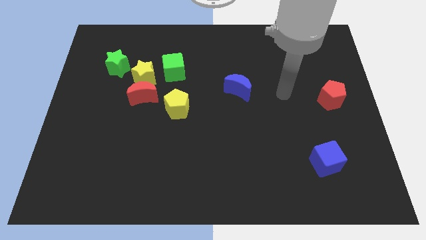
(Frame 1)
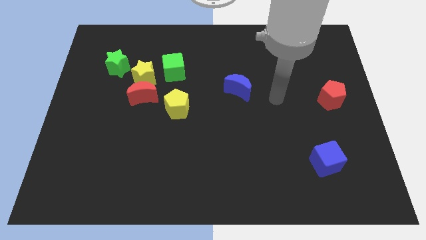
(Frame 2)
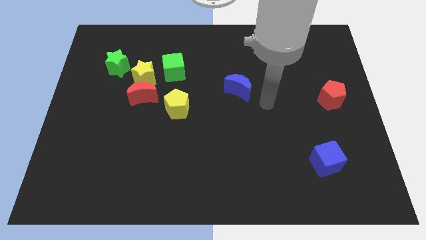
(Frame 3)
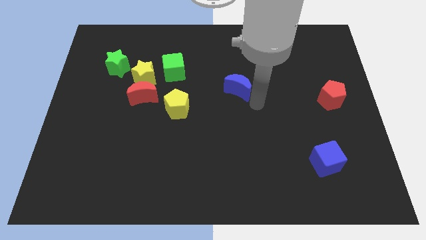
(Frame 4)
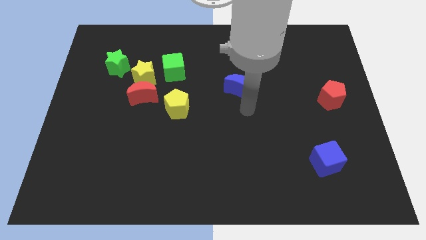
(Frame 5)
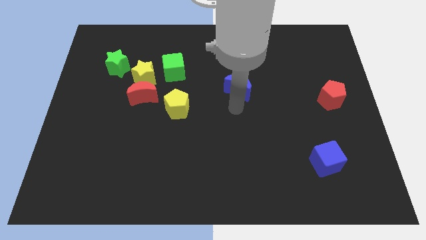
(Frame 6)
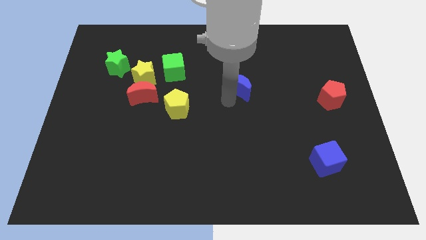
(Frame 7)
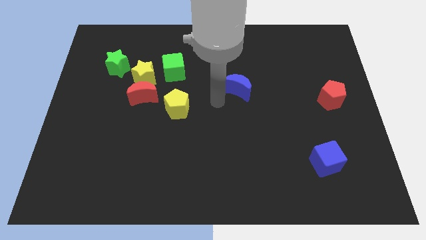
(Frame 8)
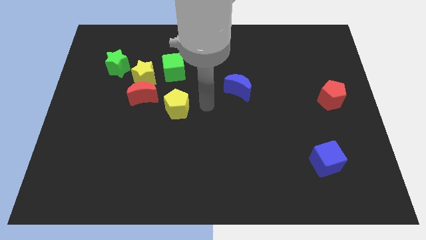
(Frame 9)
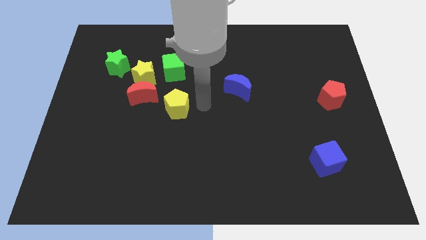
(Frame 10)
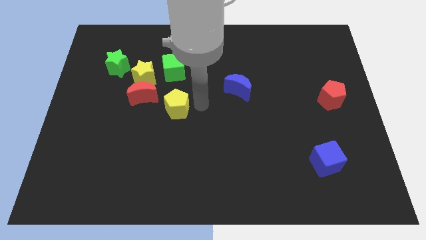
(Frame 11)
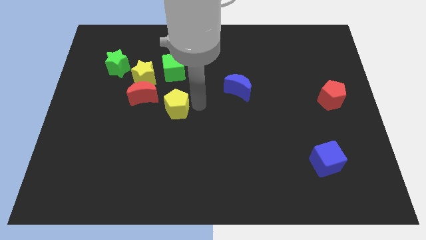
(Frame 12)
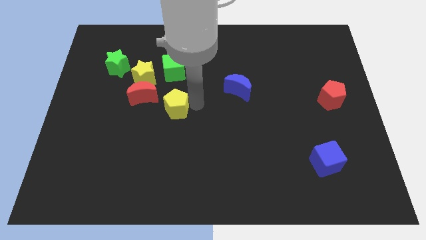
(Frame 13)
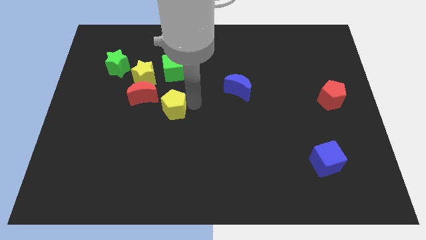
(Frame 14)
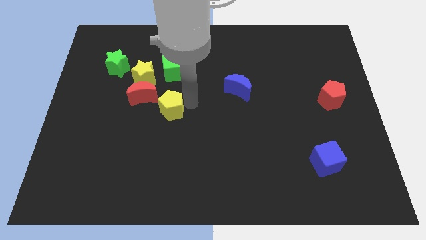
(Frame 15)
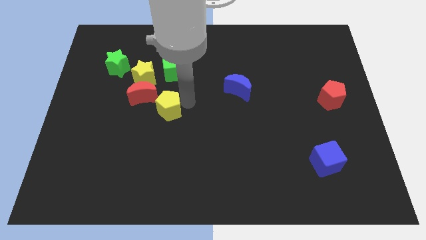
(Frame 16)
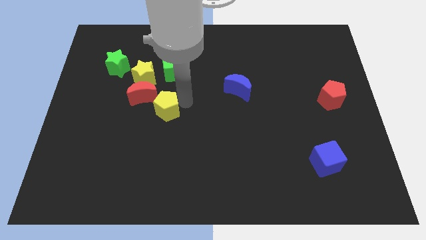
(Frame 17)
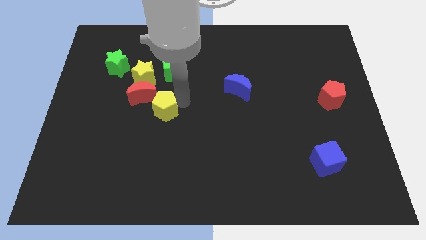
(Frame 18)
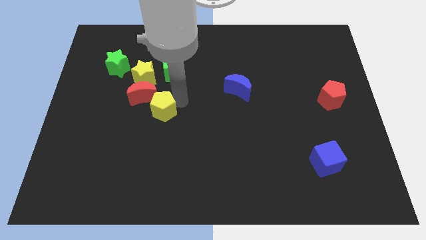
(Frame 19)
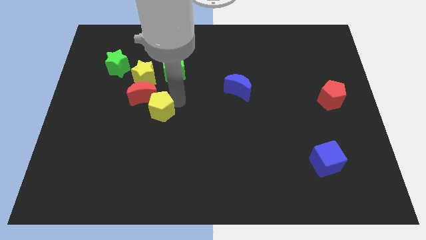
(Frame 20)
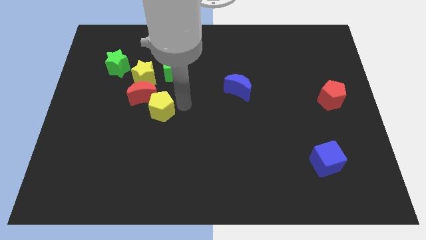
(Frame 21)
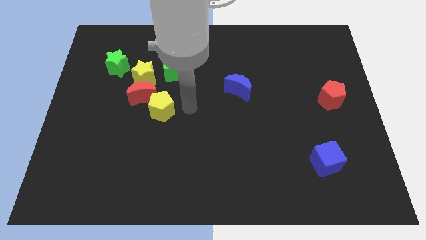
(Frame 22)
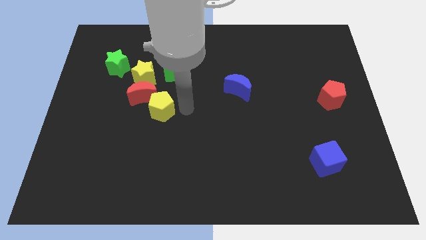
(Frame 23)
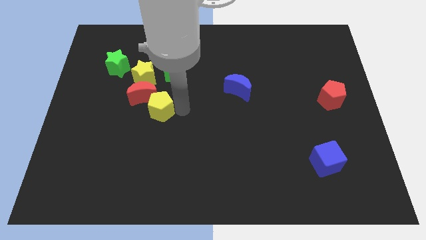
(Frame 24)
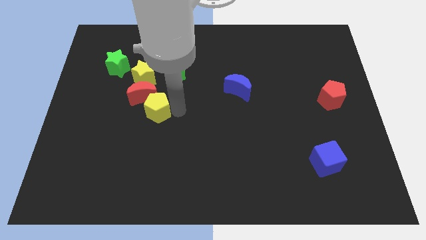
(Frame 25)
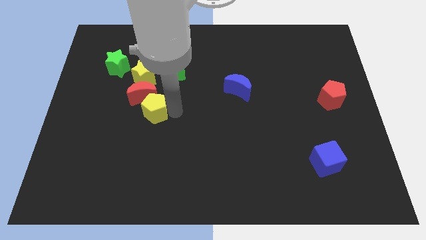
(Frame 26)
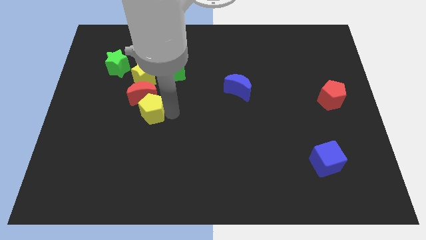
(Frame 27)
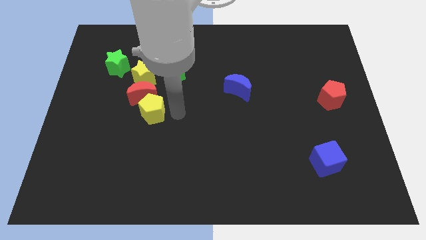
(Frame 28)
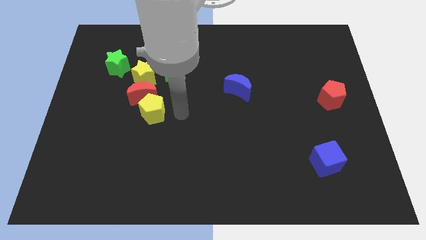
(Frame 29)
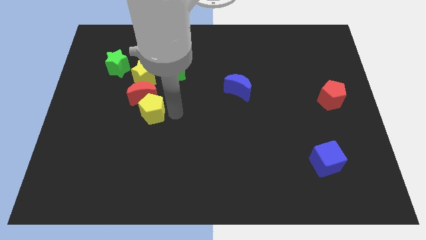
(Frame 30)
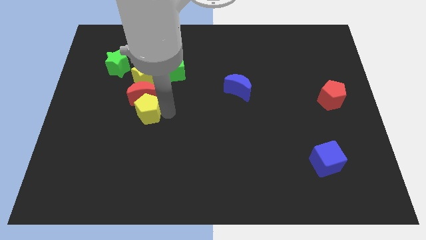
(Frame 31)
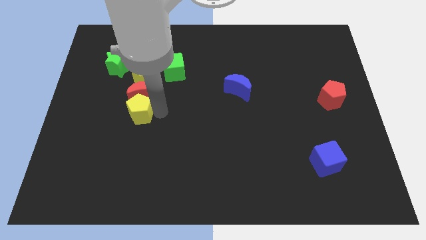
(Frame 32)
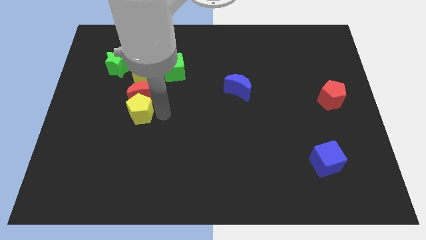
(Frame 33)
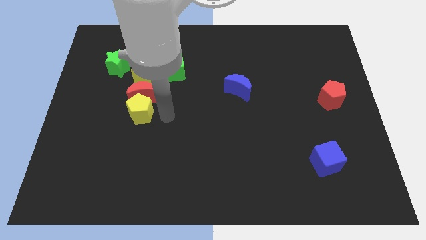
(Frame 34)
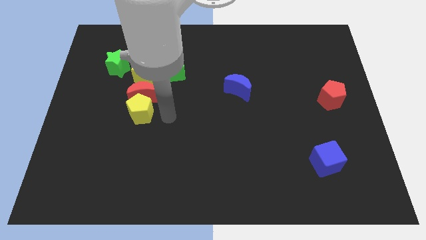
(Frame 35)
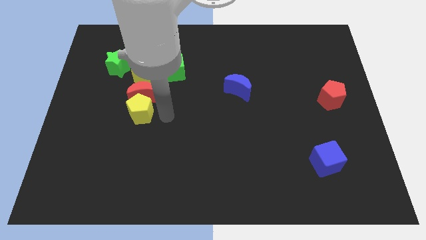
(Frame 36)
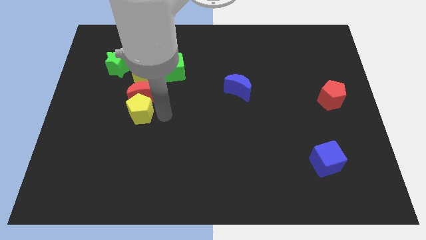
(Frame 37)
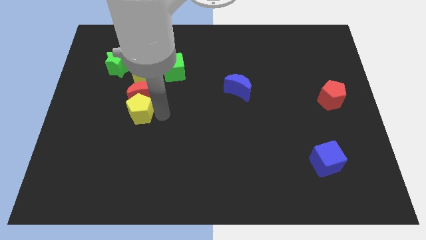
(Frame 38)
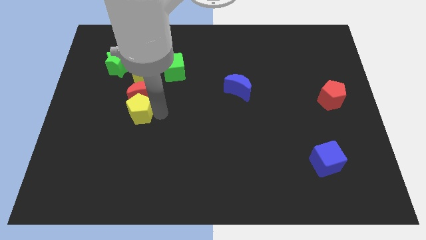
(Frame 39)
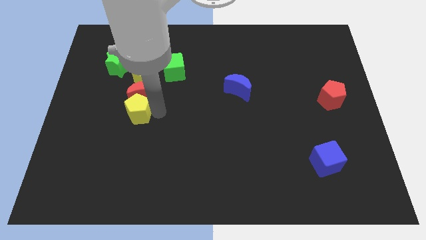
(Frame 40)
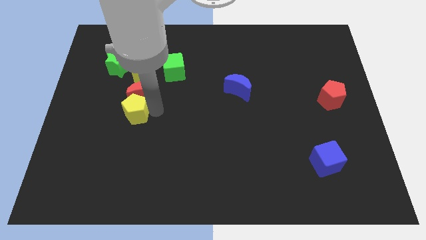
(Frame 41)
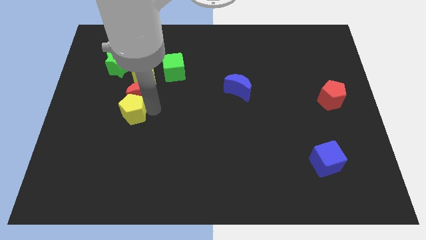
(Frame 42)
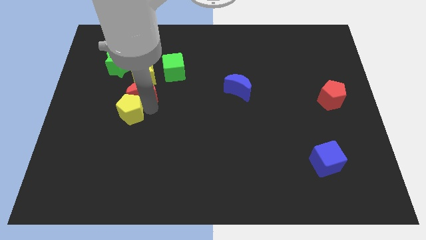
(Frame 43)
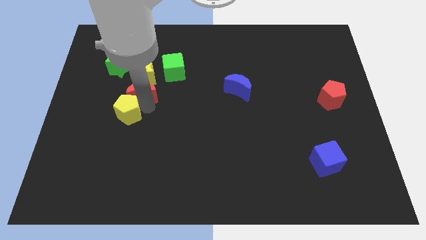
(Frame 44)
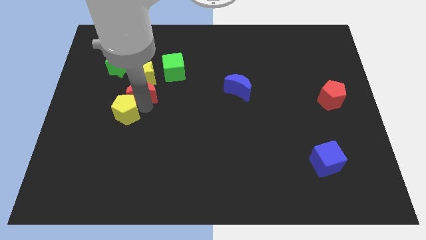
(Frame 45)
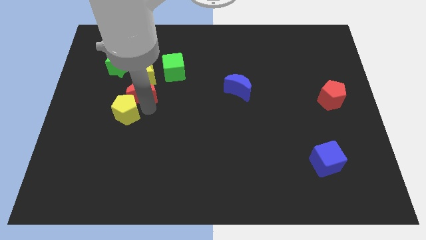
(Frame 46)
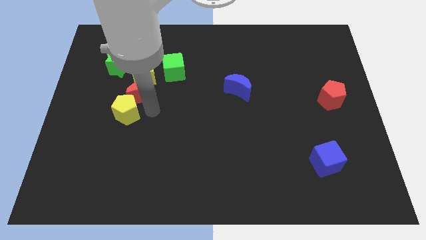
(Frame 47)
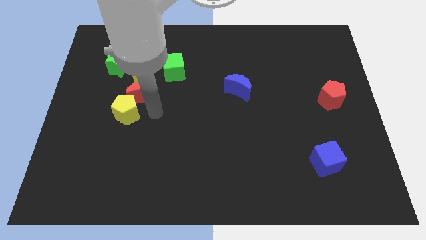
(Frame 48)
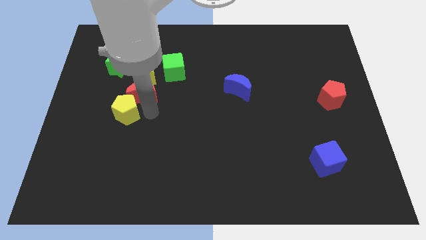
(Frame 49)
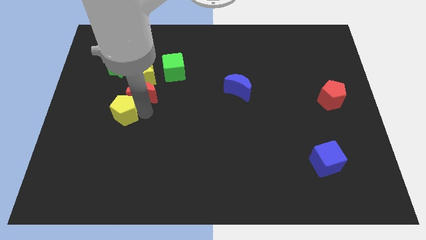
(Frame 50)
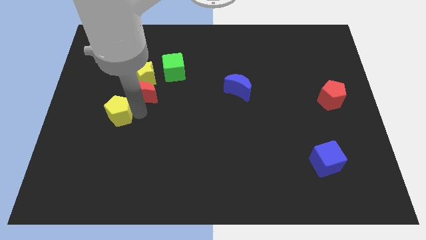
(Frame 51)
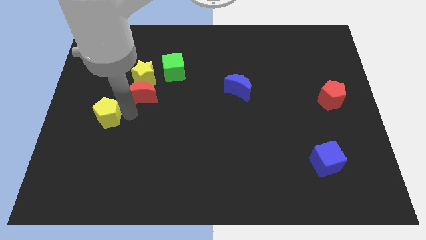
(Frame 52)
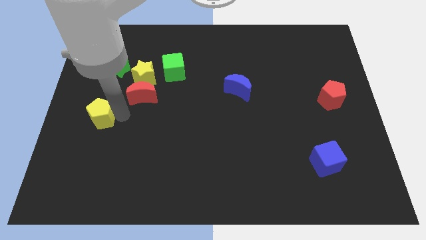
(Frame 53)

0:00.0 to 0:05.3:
push the yellow pentagon to the center left

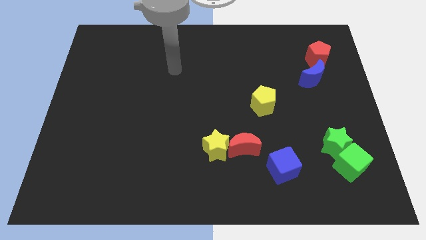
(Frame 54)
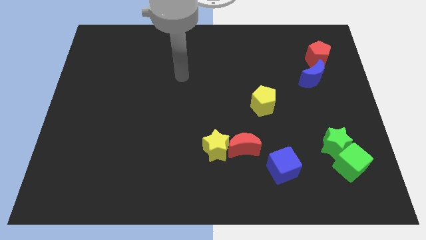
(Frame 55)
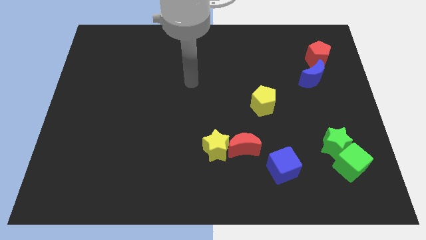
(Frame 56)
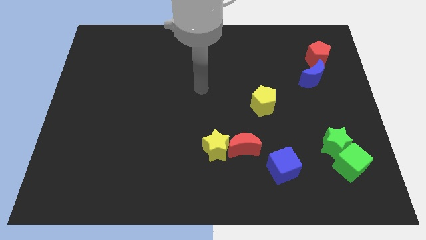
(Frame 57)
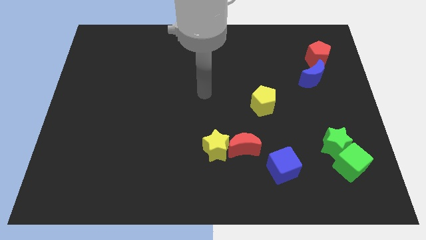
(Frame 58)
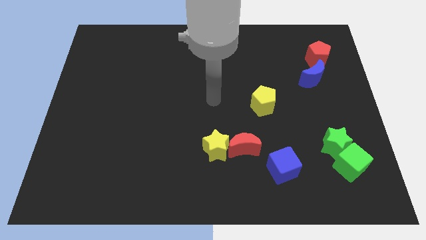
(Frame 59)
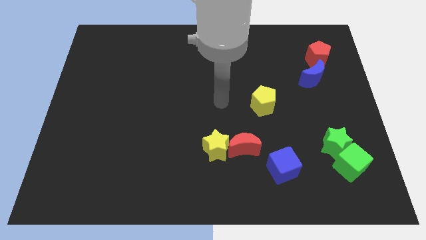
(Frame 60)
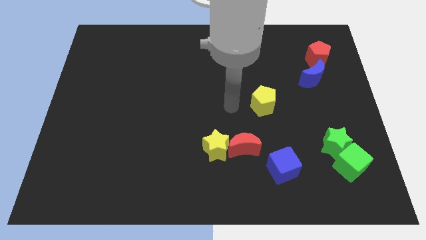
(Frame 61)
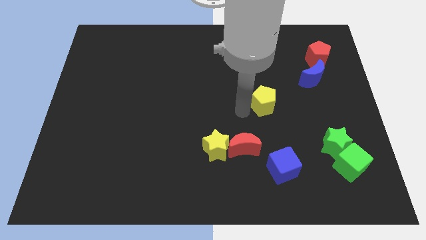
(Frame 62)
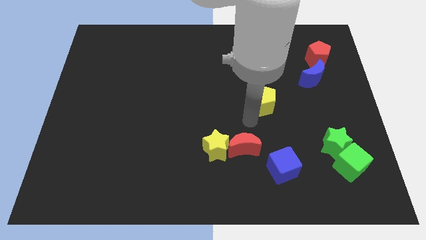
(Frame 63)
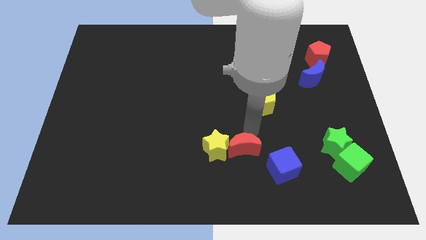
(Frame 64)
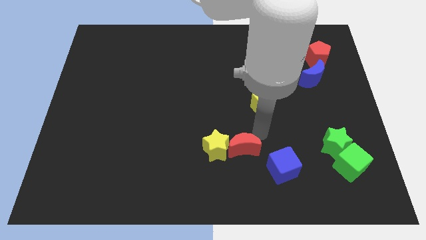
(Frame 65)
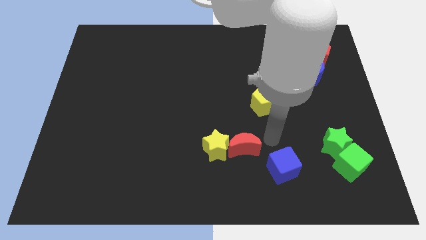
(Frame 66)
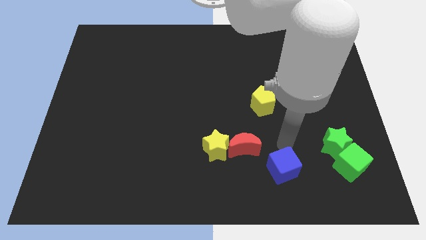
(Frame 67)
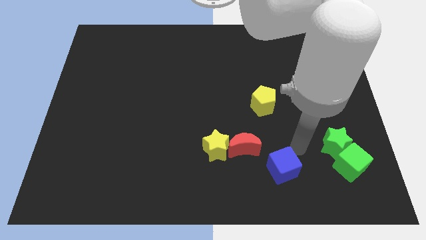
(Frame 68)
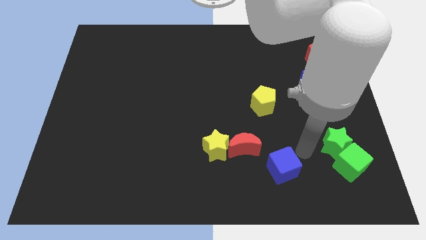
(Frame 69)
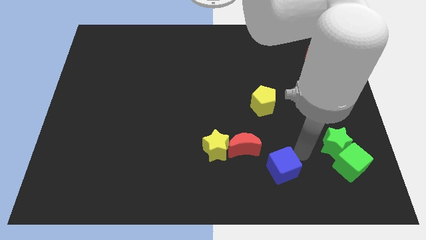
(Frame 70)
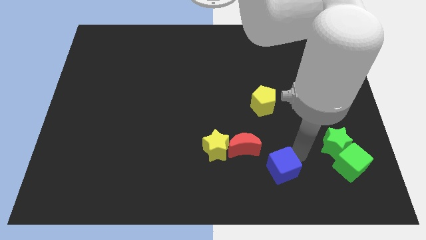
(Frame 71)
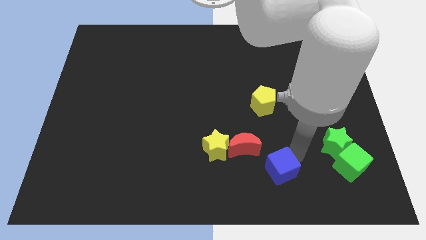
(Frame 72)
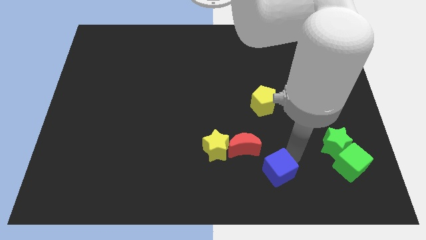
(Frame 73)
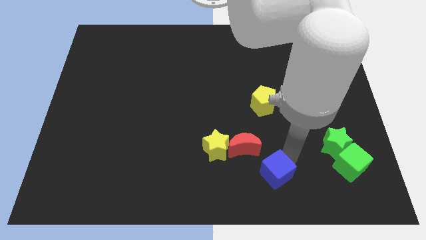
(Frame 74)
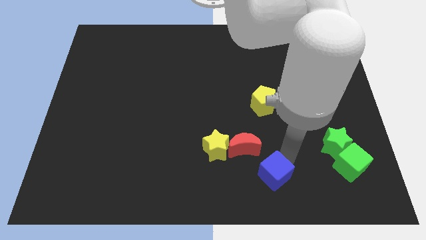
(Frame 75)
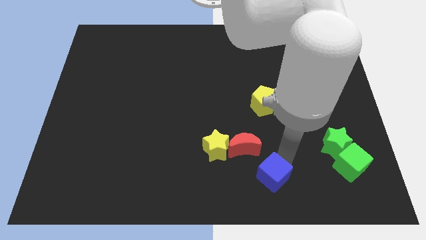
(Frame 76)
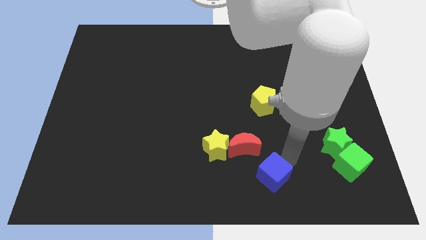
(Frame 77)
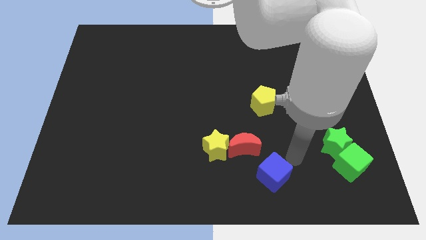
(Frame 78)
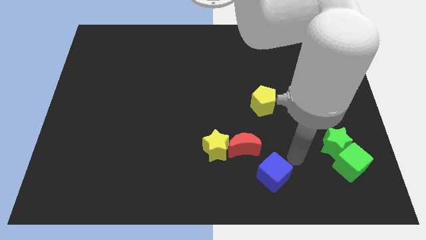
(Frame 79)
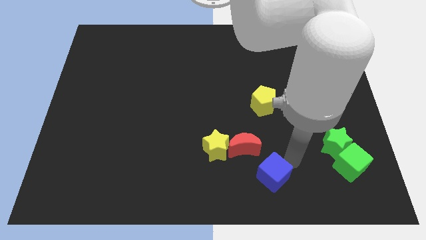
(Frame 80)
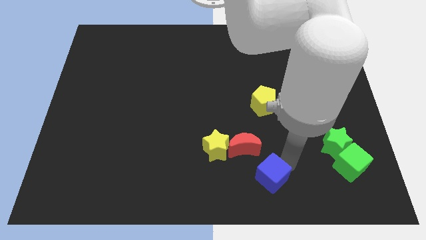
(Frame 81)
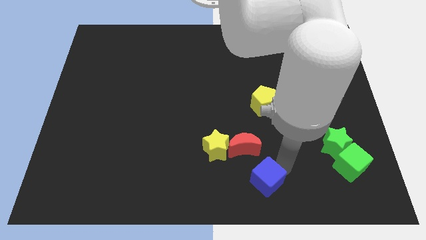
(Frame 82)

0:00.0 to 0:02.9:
slide the blue cube to the bottom
